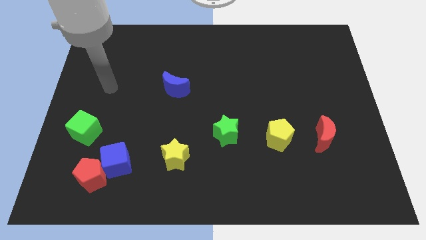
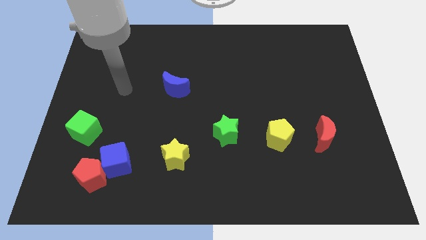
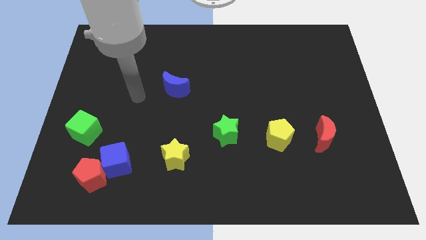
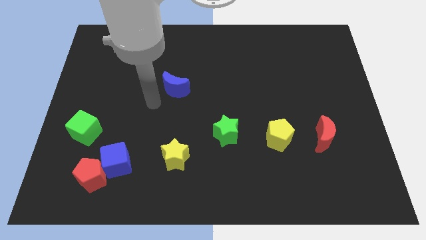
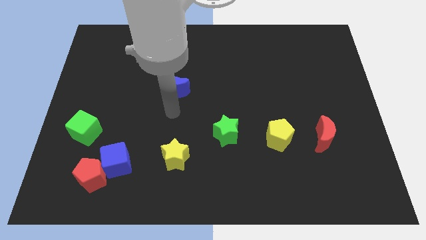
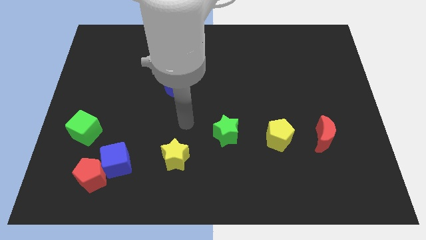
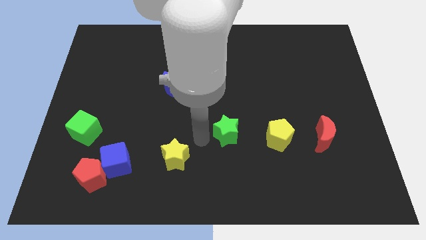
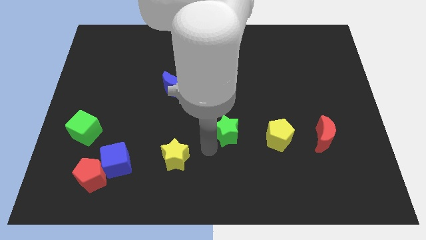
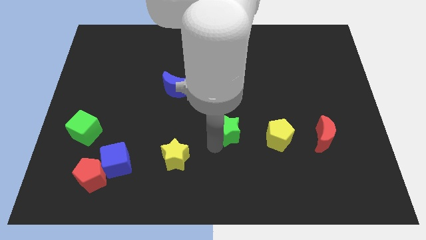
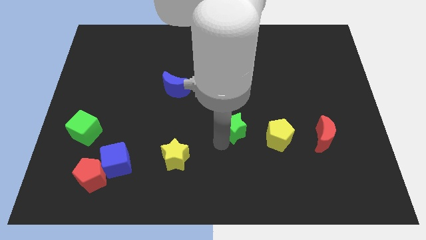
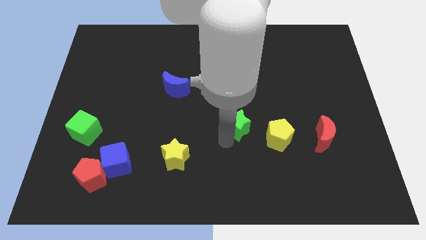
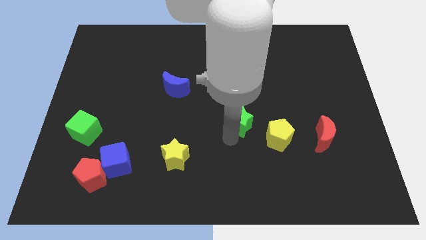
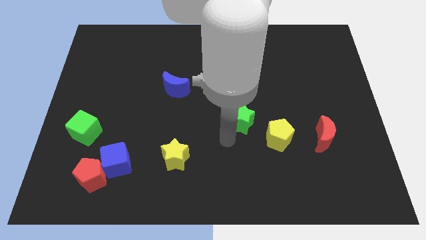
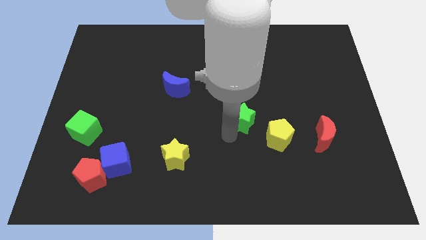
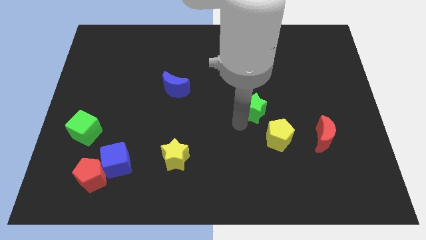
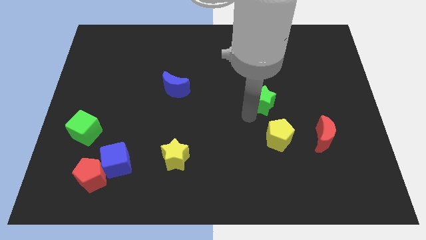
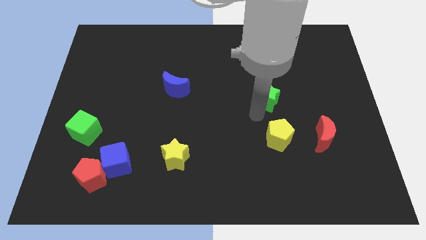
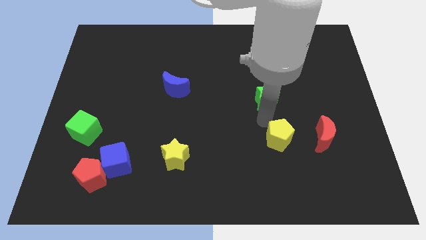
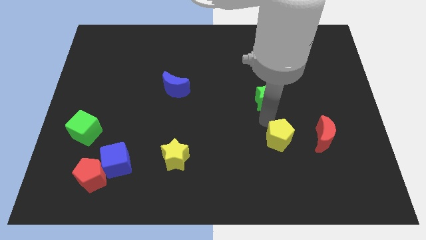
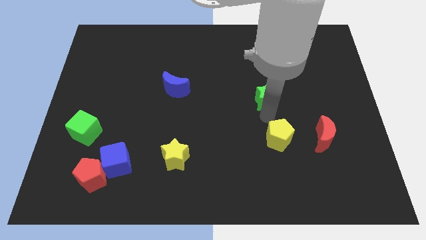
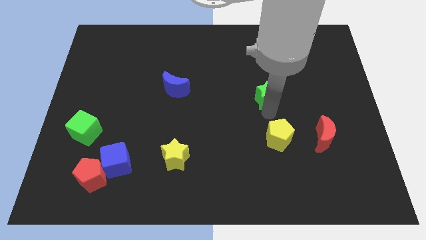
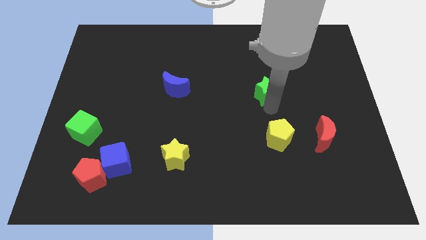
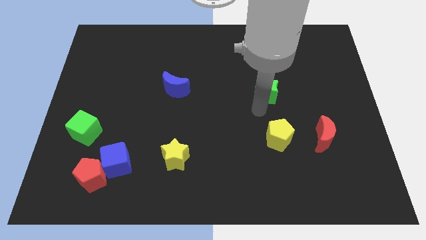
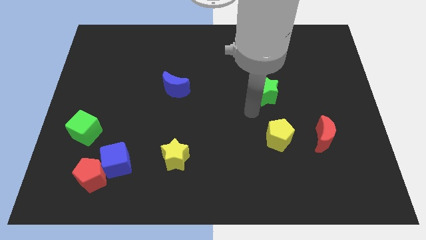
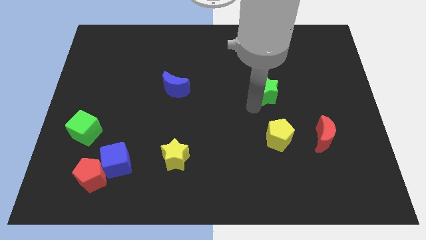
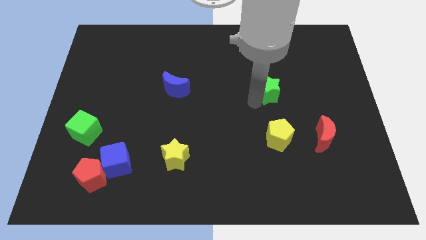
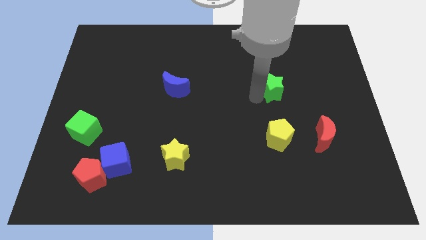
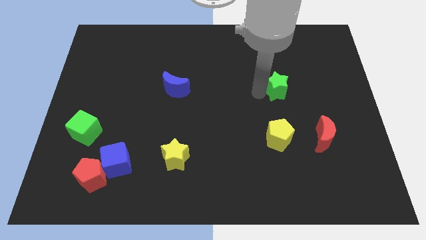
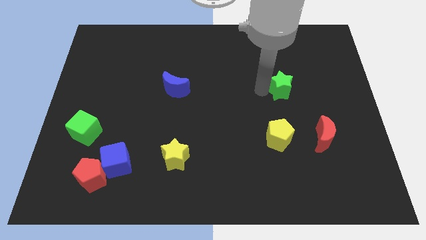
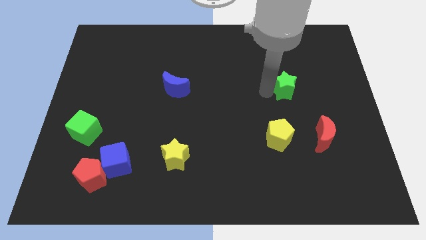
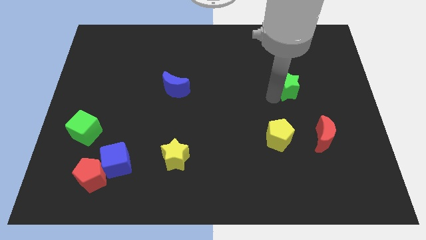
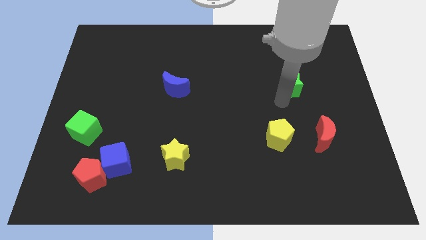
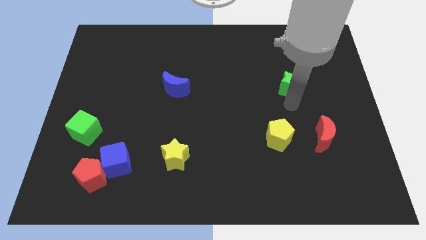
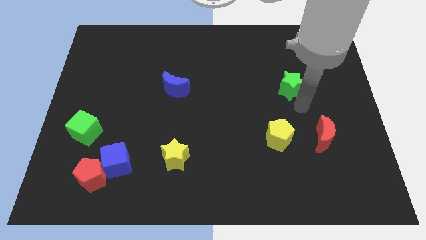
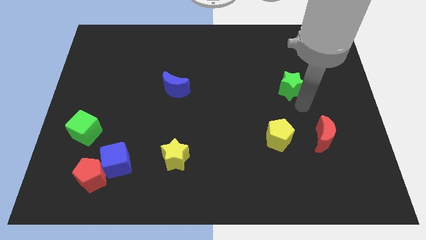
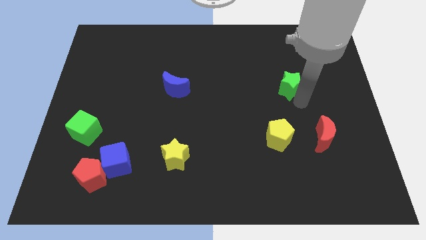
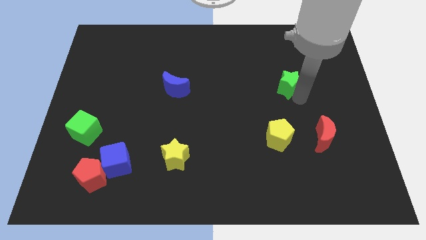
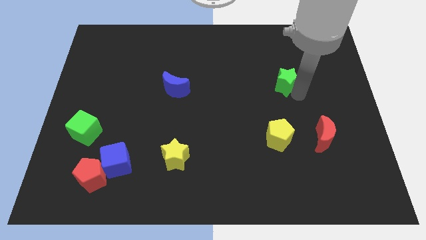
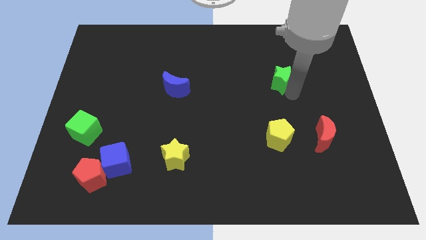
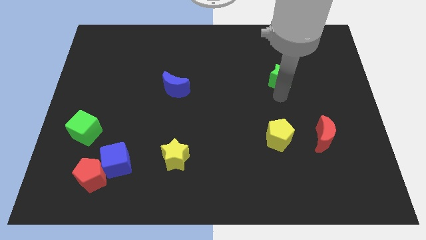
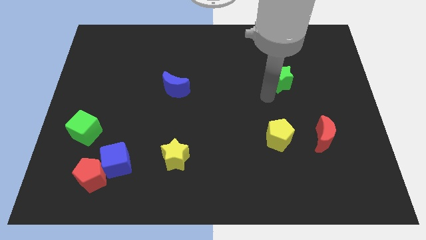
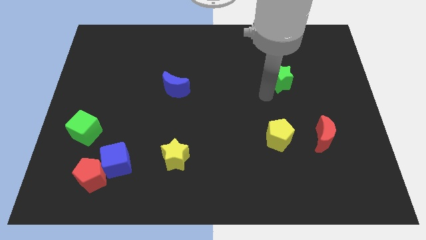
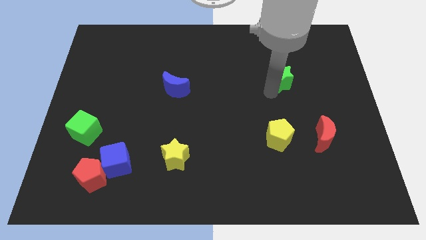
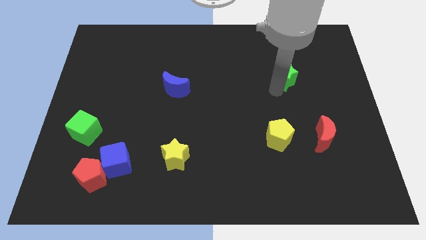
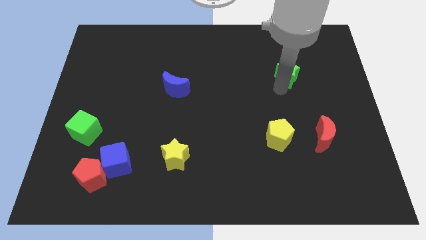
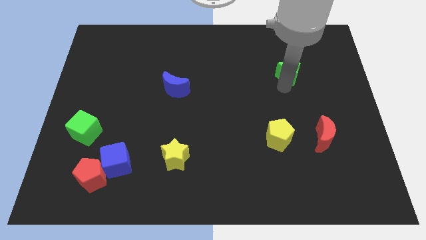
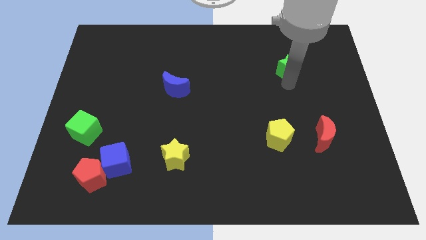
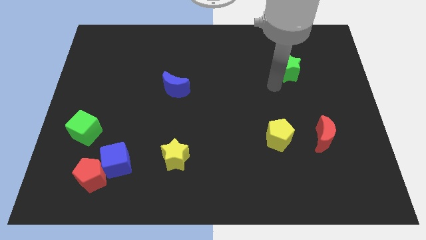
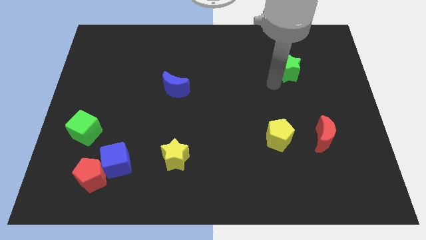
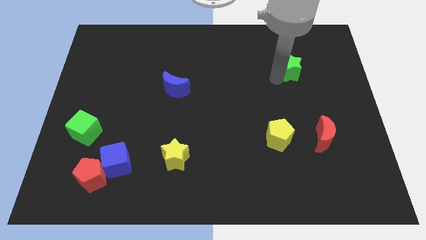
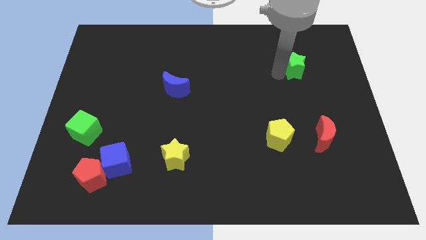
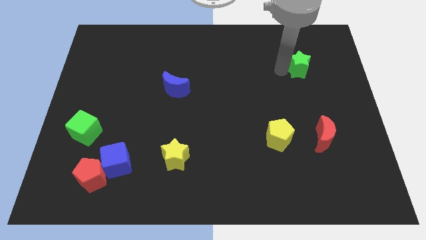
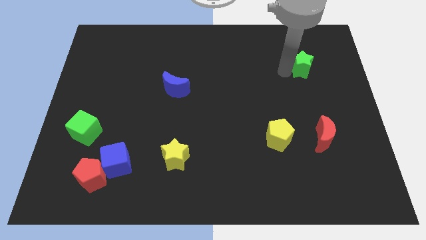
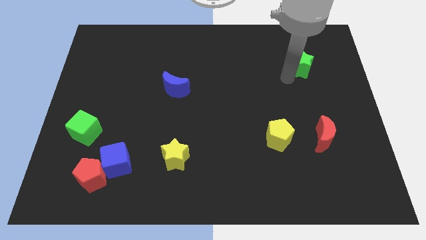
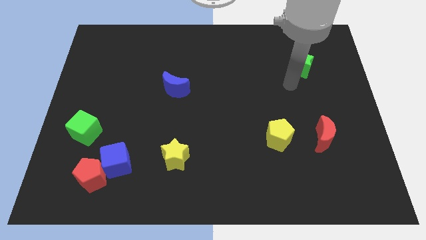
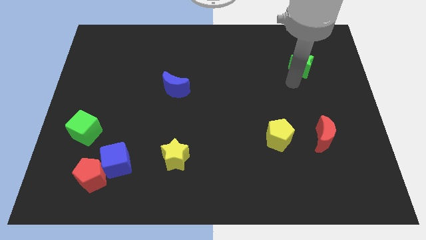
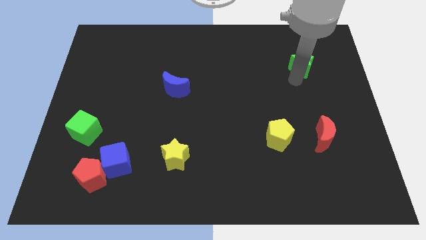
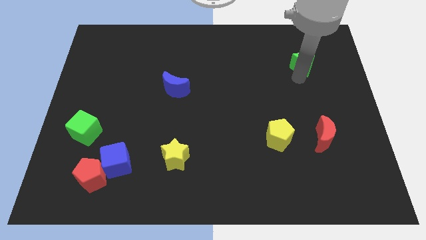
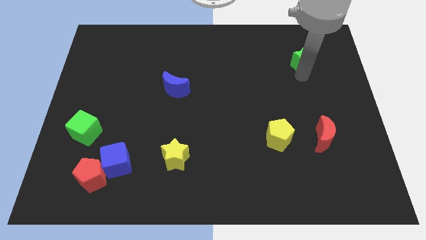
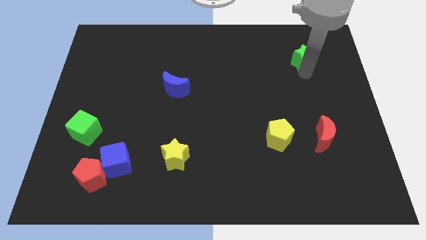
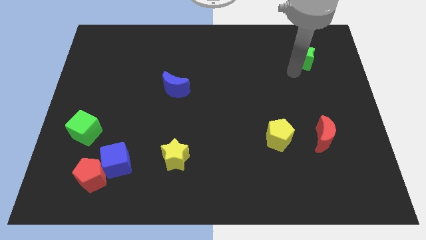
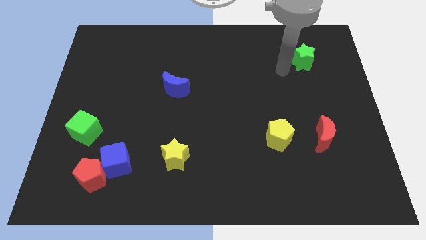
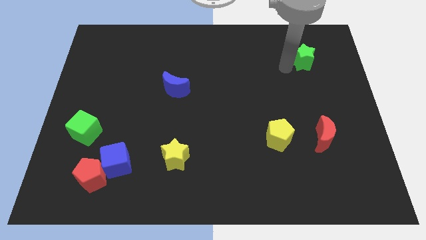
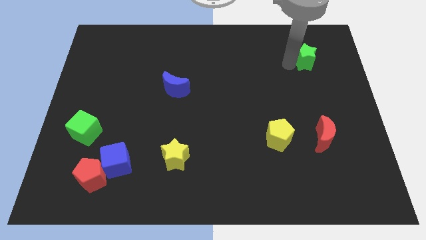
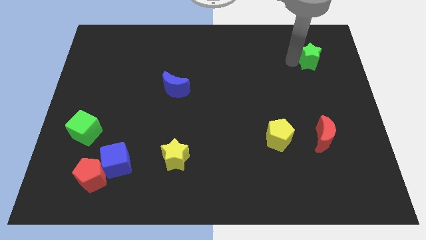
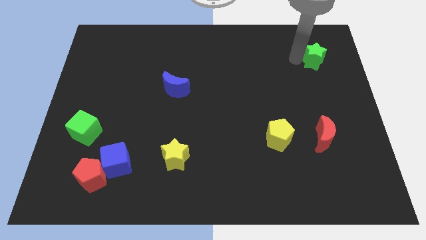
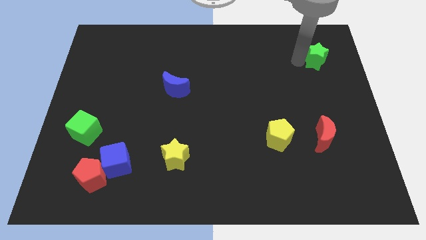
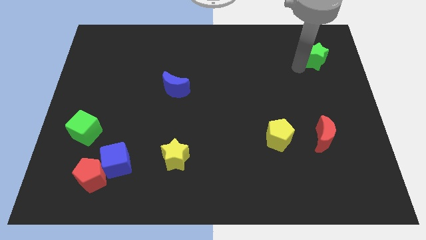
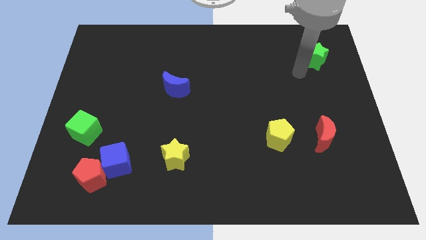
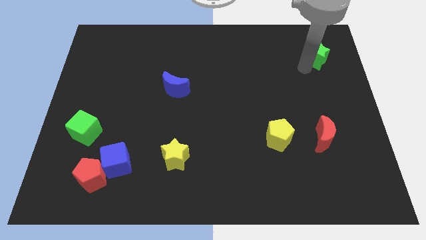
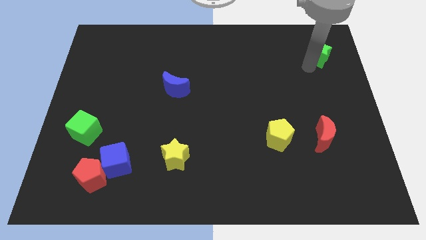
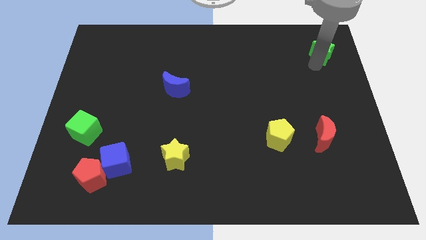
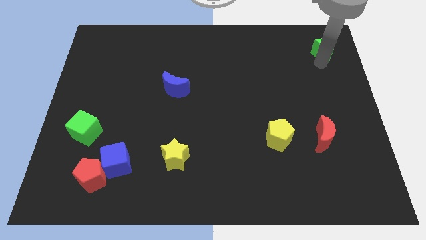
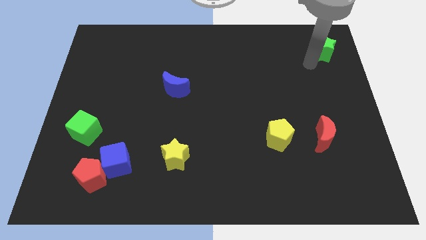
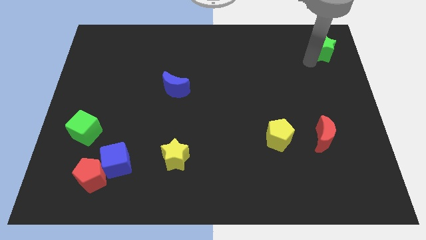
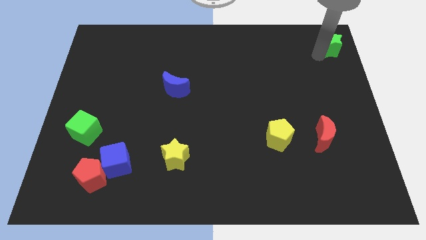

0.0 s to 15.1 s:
push the green star to the top right corner
